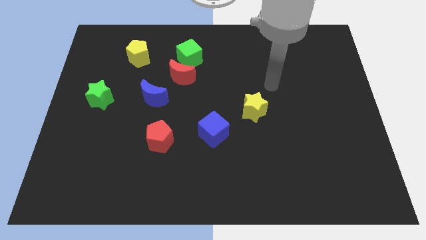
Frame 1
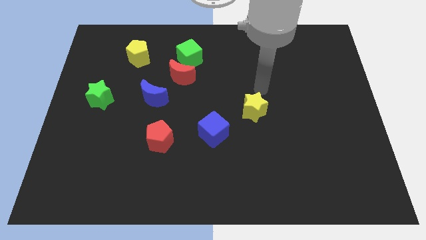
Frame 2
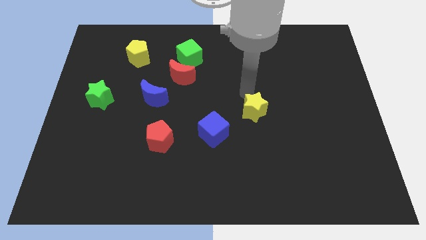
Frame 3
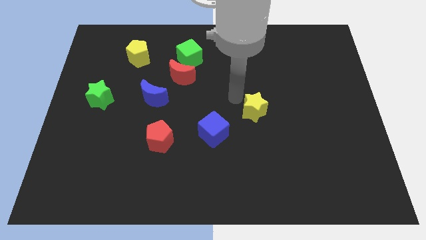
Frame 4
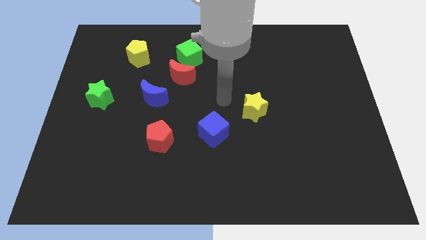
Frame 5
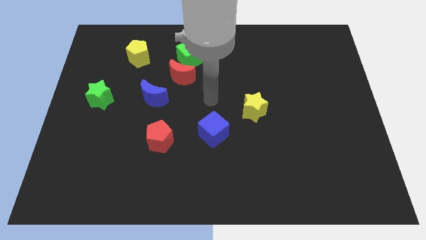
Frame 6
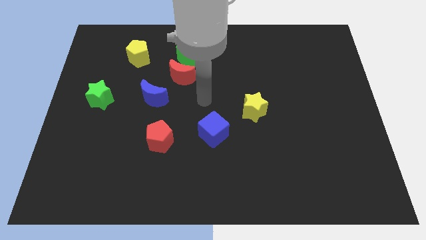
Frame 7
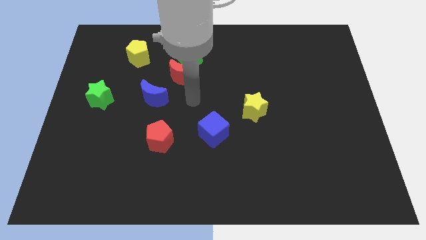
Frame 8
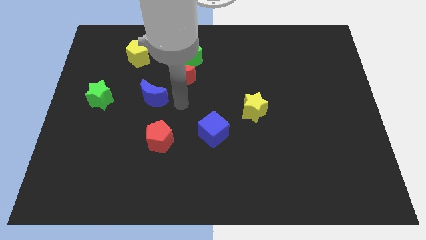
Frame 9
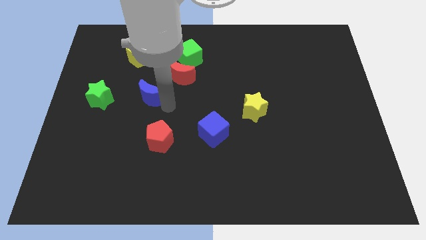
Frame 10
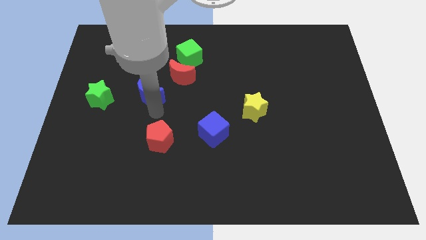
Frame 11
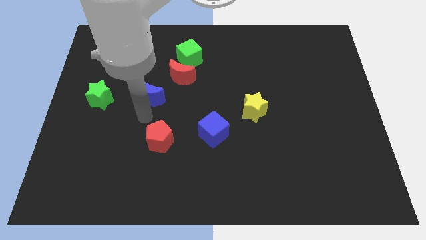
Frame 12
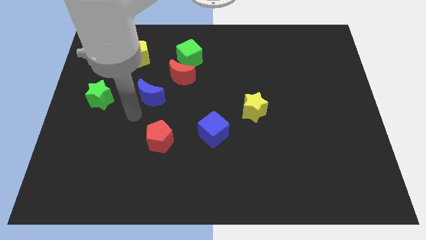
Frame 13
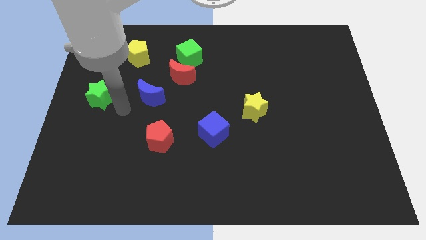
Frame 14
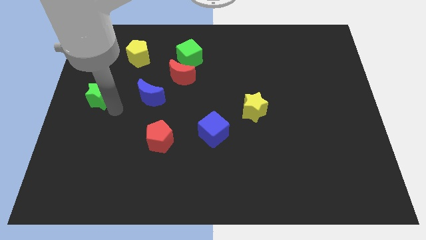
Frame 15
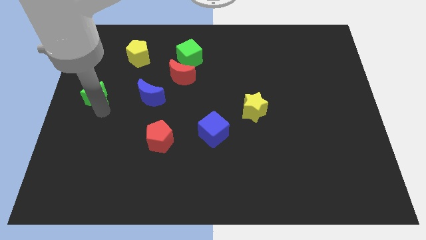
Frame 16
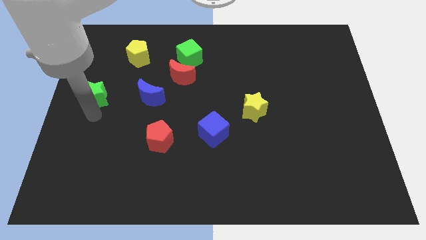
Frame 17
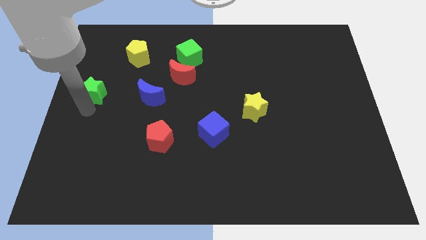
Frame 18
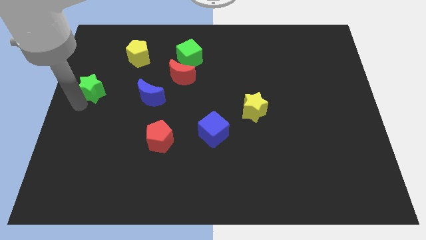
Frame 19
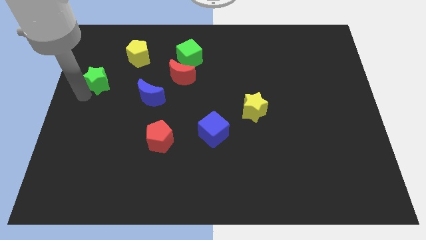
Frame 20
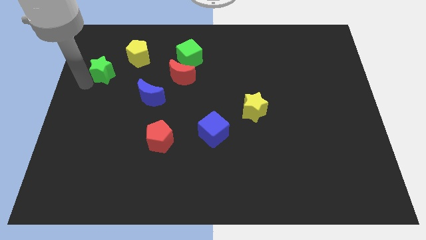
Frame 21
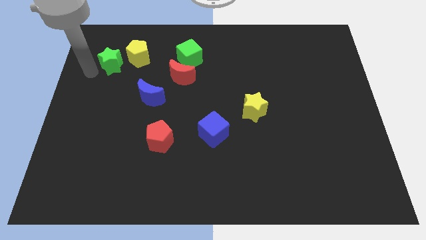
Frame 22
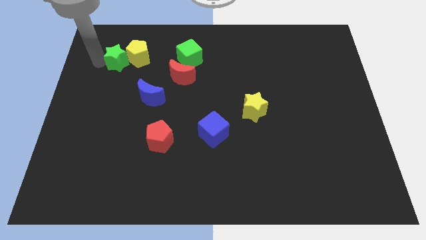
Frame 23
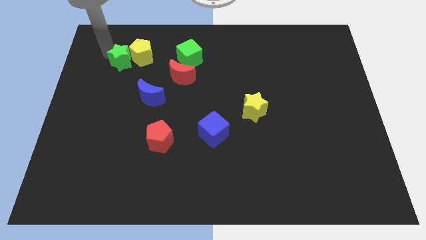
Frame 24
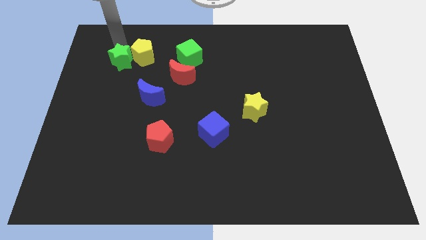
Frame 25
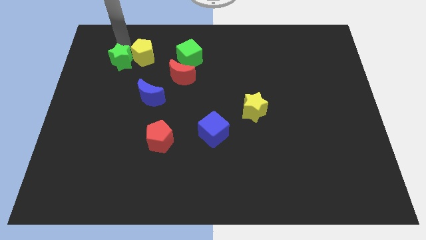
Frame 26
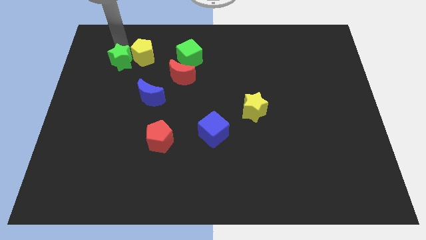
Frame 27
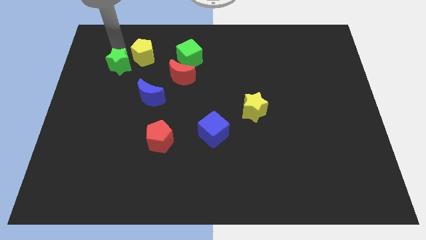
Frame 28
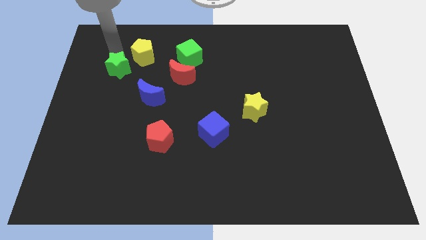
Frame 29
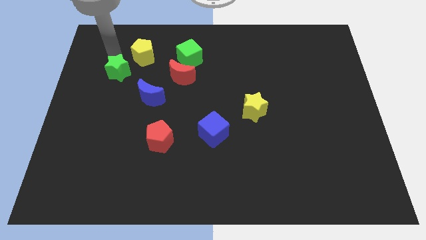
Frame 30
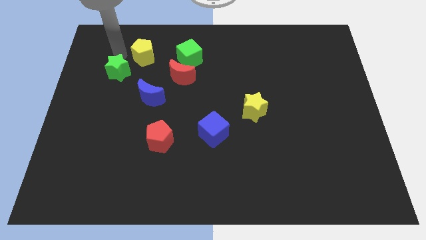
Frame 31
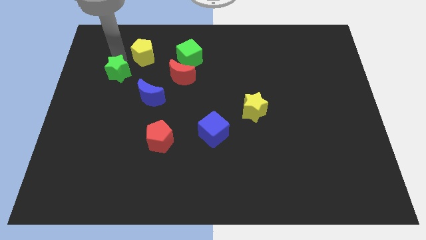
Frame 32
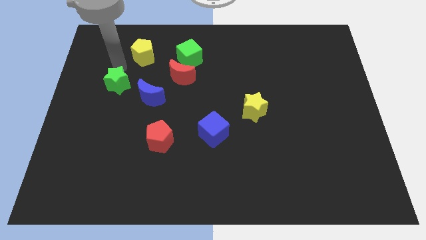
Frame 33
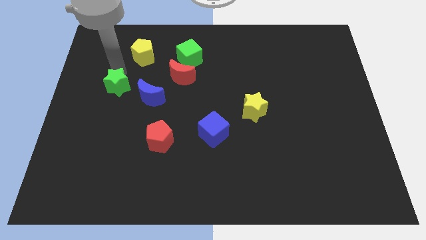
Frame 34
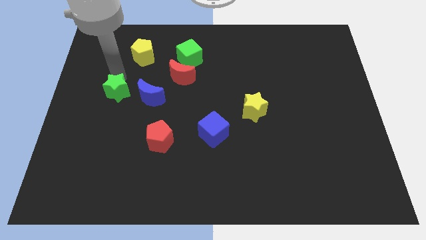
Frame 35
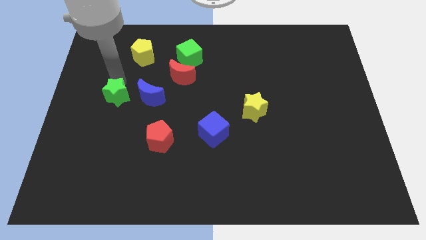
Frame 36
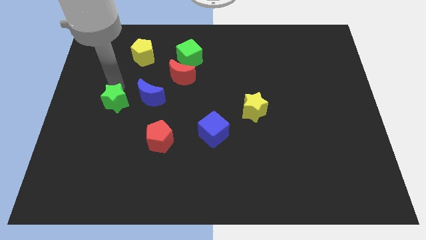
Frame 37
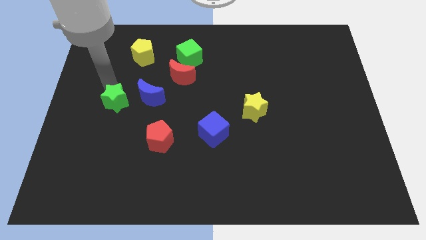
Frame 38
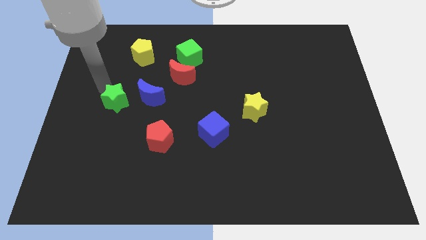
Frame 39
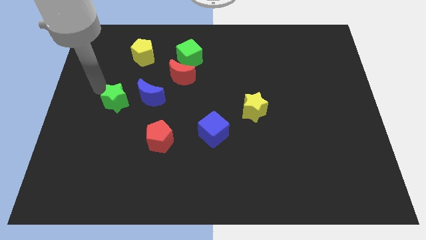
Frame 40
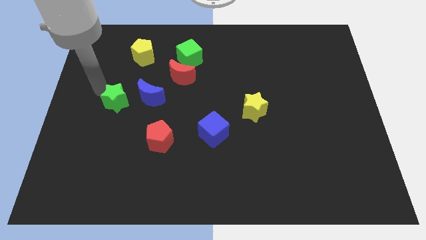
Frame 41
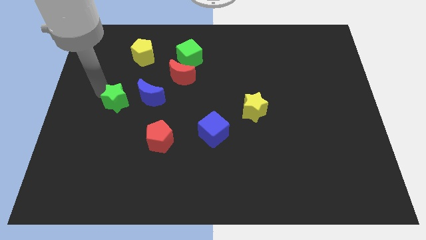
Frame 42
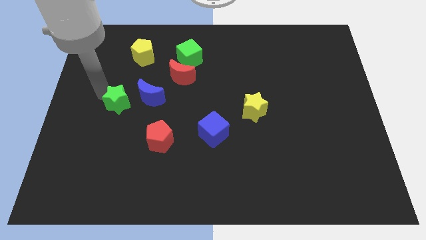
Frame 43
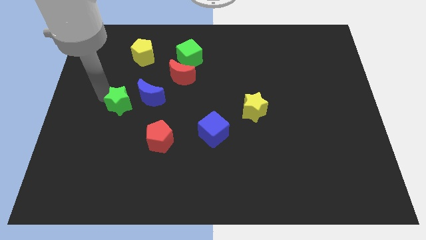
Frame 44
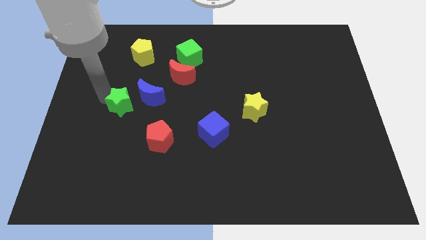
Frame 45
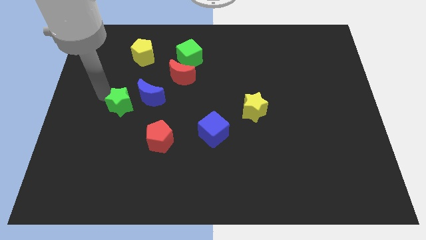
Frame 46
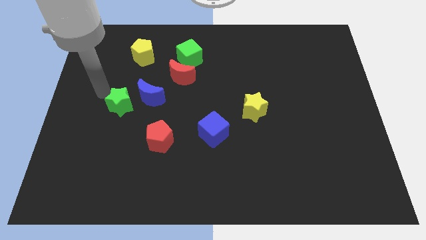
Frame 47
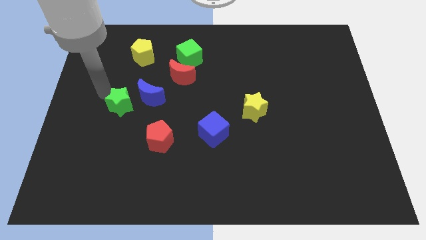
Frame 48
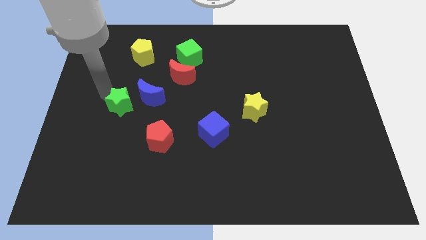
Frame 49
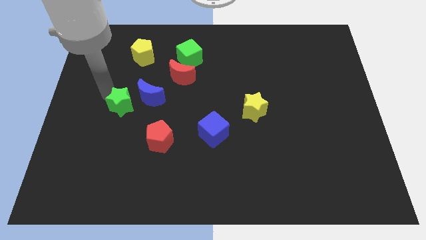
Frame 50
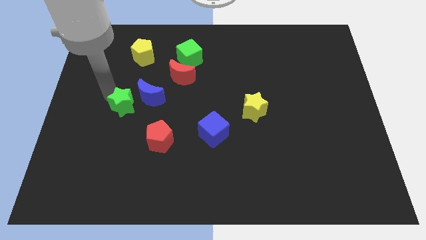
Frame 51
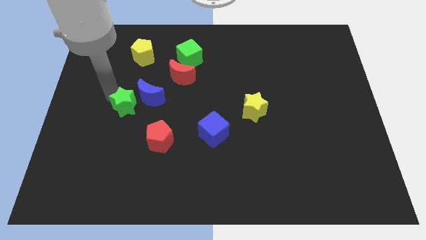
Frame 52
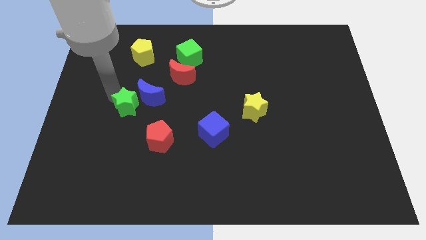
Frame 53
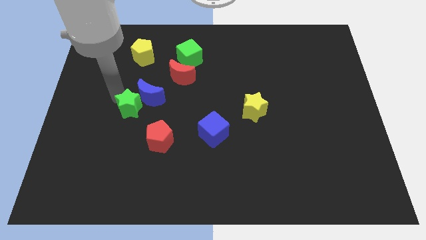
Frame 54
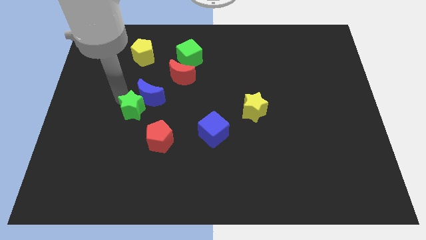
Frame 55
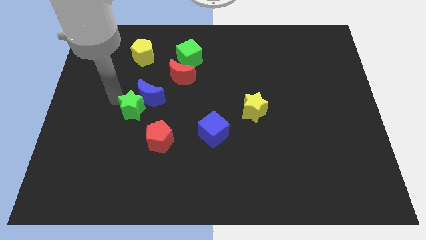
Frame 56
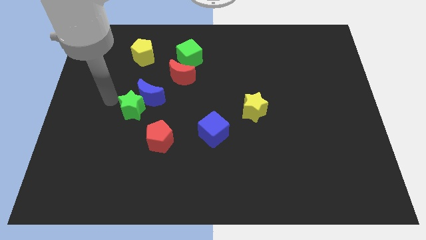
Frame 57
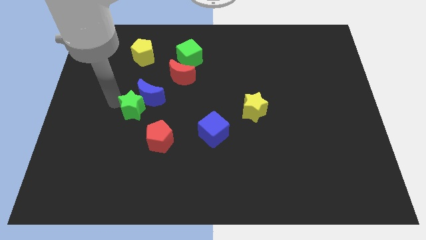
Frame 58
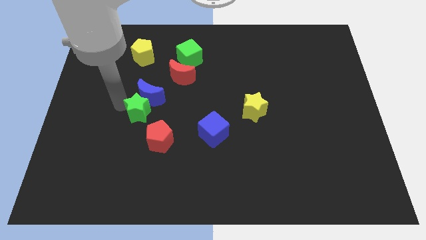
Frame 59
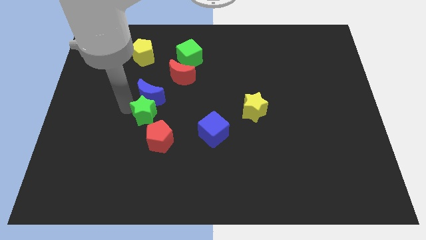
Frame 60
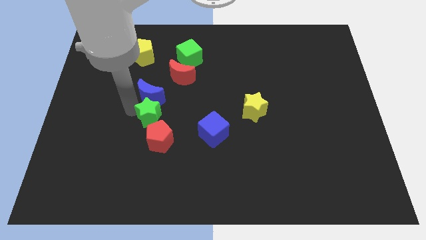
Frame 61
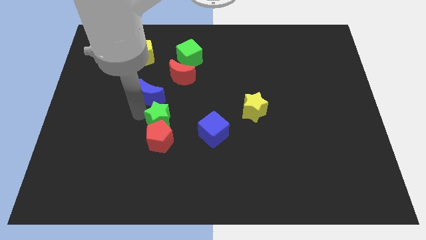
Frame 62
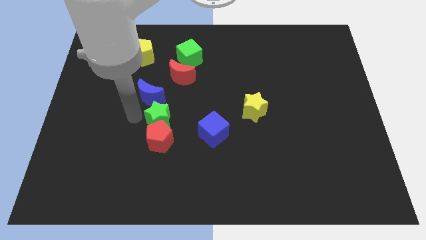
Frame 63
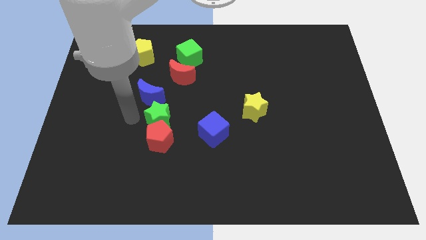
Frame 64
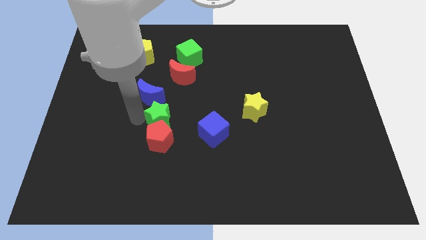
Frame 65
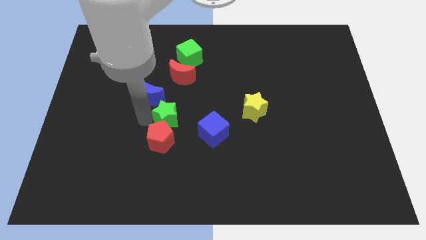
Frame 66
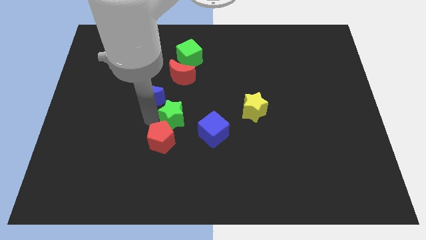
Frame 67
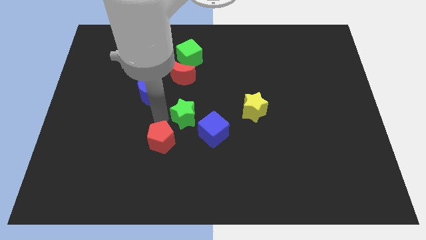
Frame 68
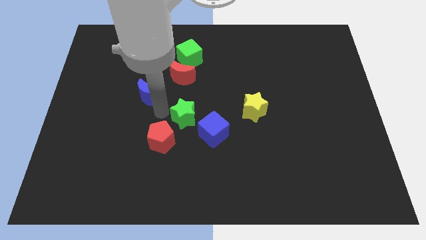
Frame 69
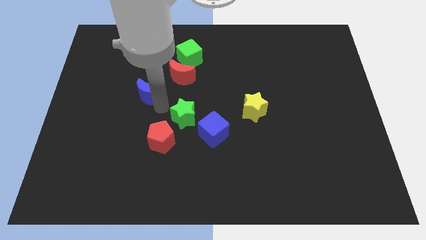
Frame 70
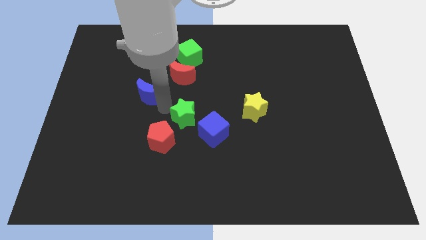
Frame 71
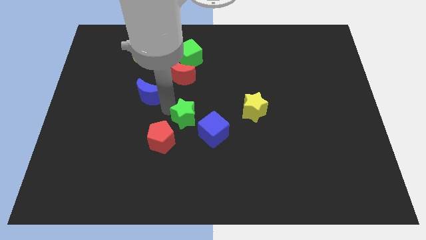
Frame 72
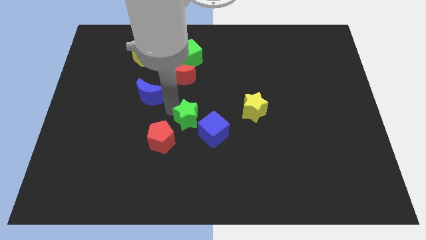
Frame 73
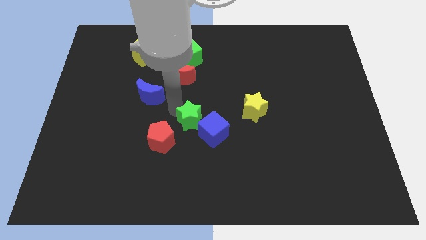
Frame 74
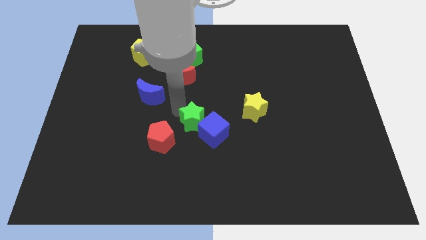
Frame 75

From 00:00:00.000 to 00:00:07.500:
slide the green star next to the blue cube
